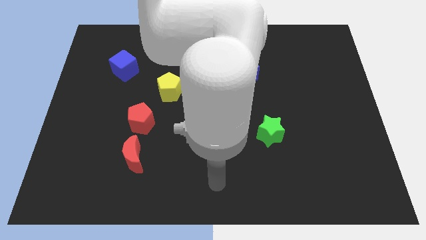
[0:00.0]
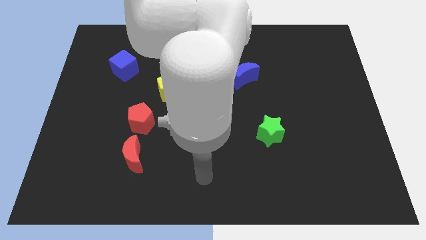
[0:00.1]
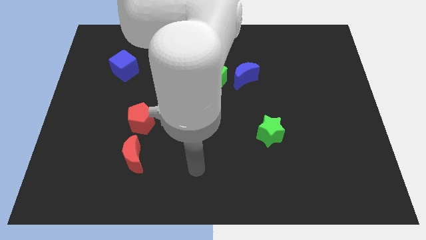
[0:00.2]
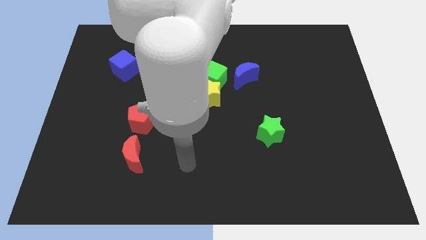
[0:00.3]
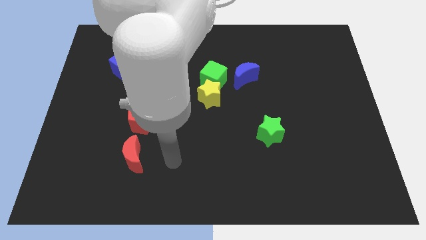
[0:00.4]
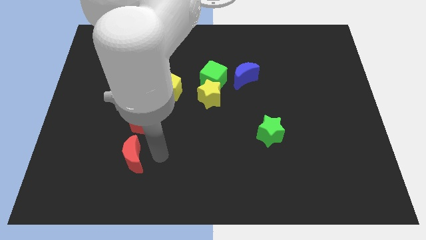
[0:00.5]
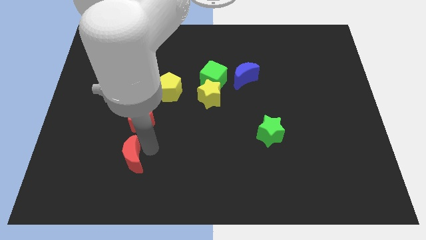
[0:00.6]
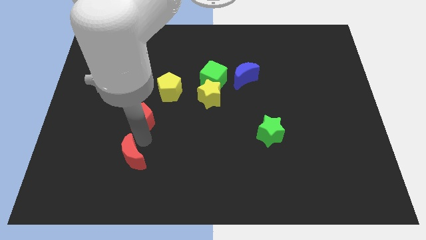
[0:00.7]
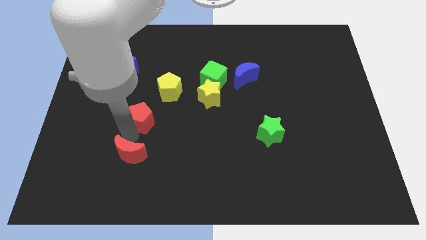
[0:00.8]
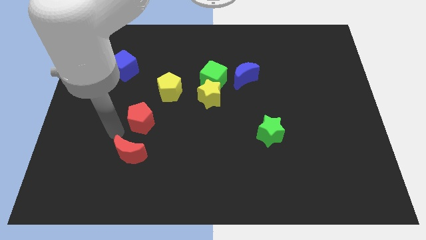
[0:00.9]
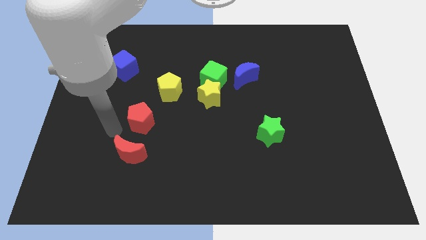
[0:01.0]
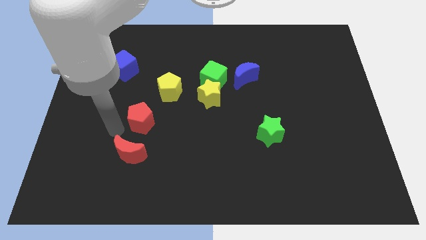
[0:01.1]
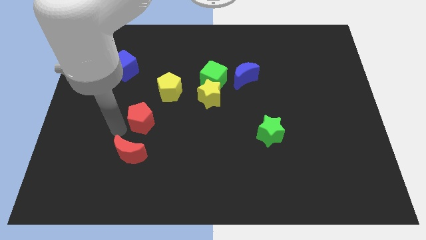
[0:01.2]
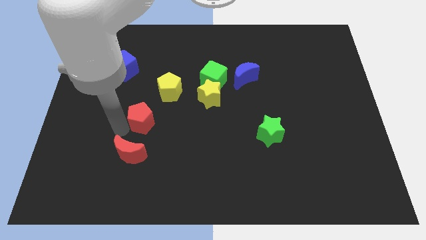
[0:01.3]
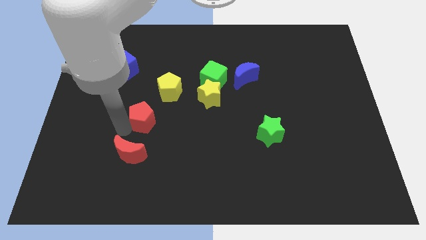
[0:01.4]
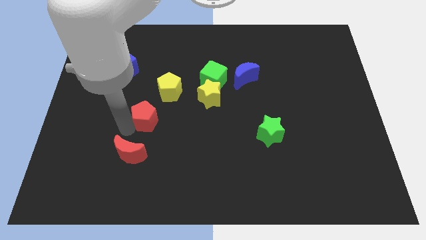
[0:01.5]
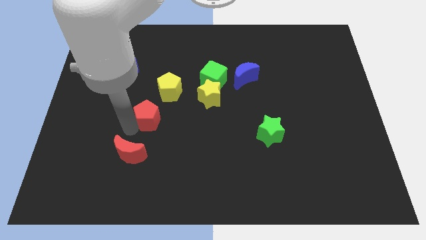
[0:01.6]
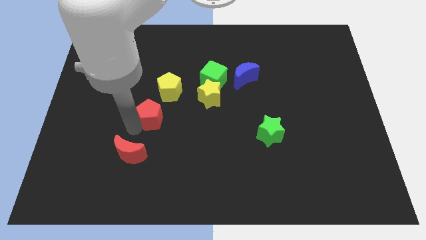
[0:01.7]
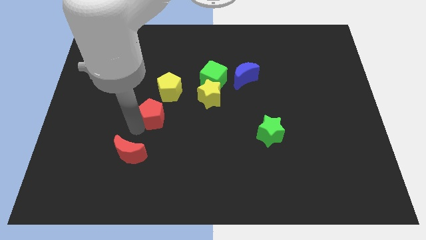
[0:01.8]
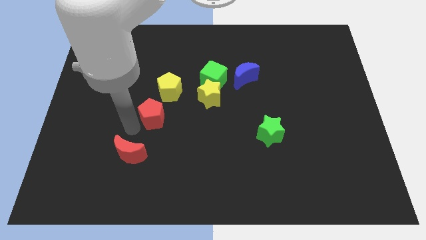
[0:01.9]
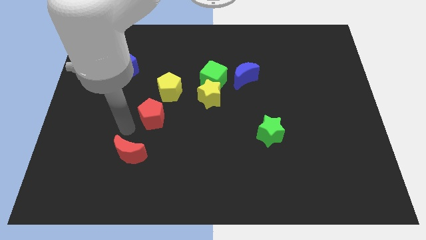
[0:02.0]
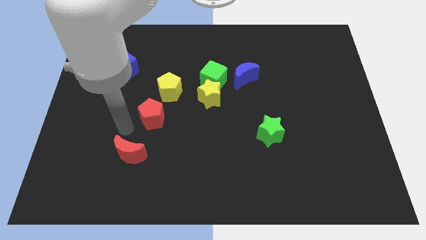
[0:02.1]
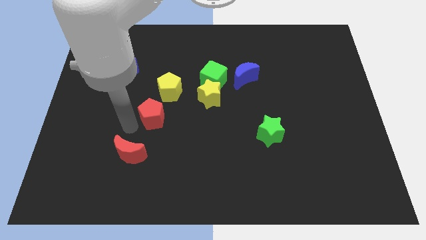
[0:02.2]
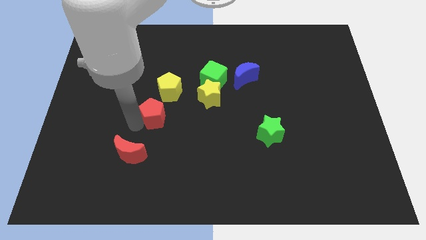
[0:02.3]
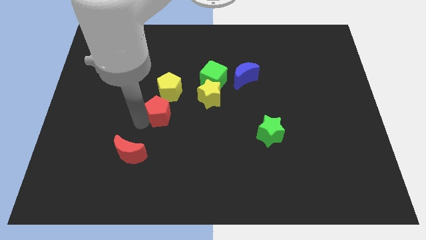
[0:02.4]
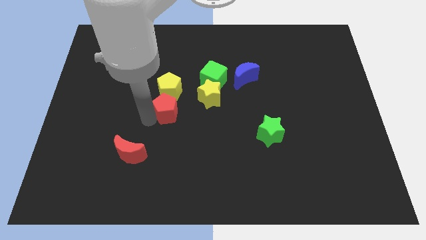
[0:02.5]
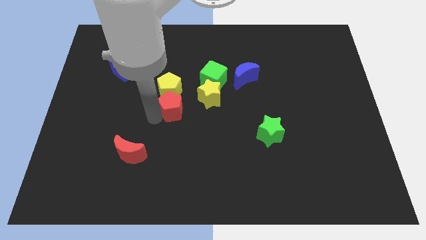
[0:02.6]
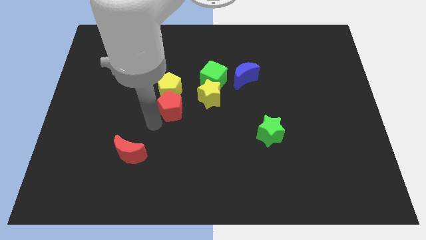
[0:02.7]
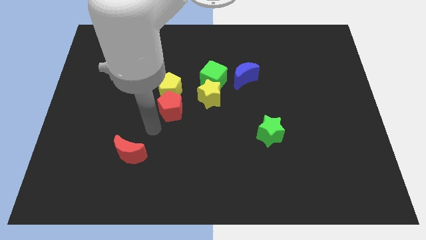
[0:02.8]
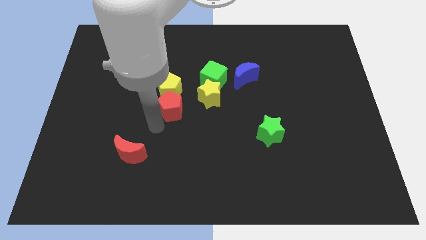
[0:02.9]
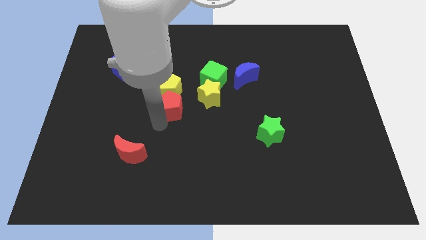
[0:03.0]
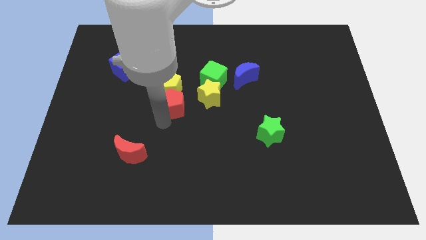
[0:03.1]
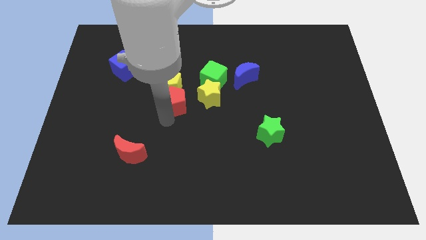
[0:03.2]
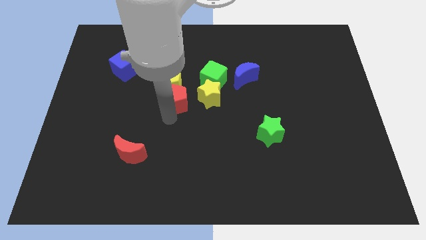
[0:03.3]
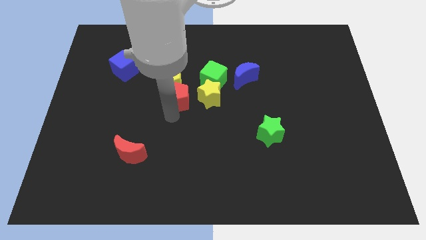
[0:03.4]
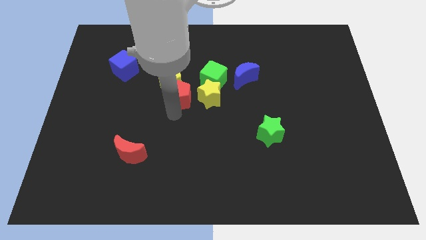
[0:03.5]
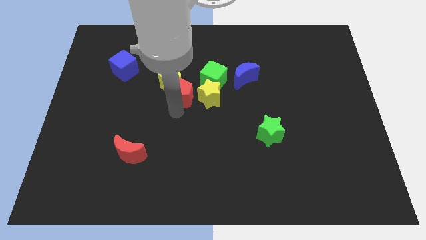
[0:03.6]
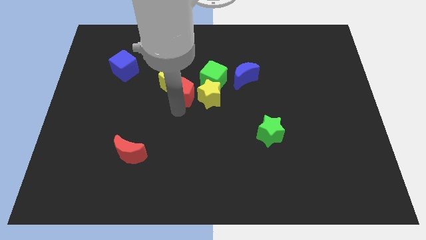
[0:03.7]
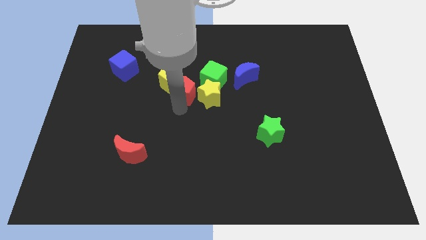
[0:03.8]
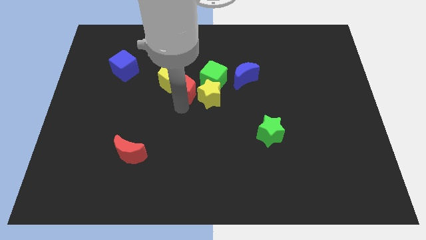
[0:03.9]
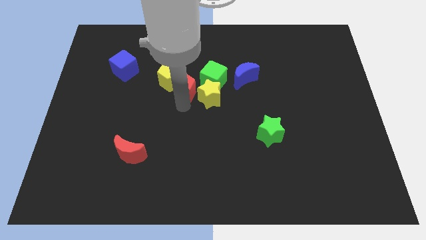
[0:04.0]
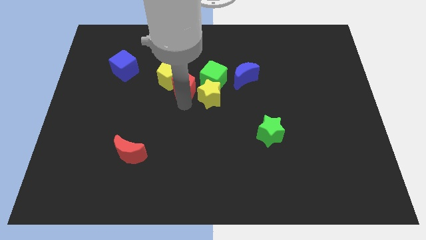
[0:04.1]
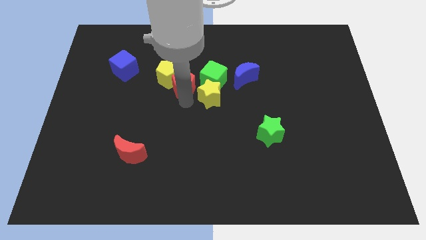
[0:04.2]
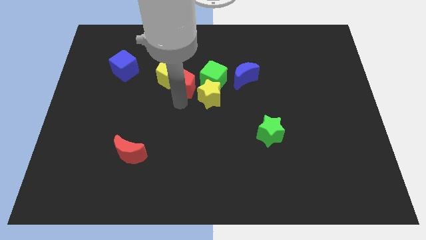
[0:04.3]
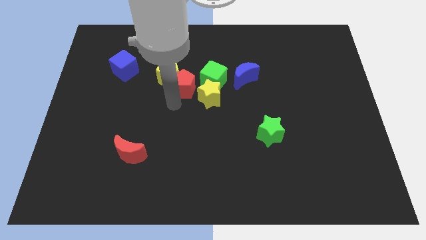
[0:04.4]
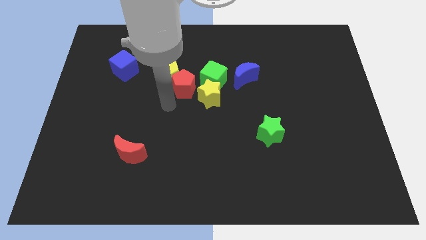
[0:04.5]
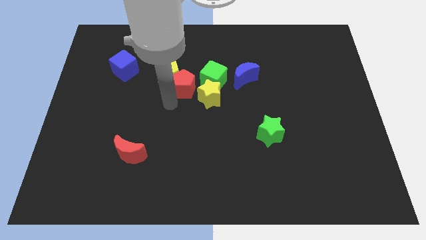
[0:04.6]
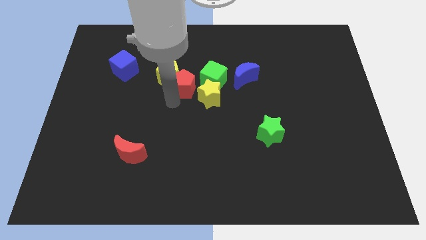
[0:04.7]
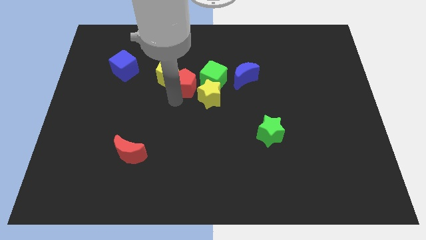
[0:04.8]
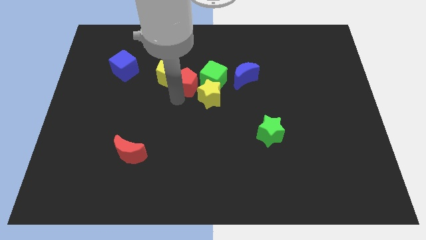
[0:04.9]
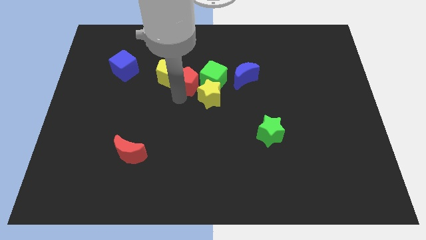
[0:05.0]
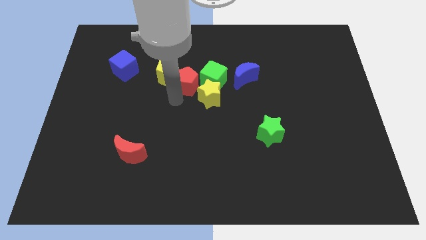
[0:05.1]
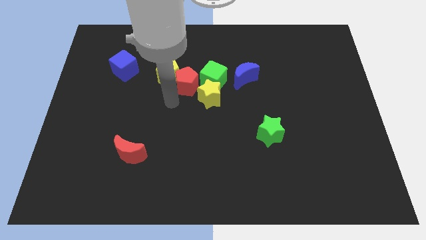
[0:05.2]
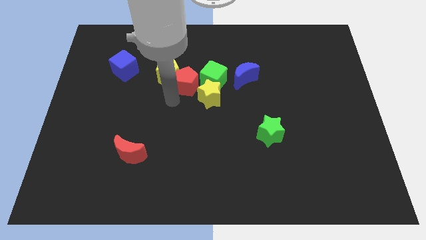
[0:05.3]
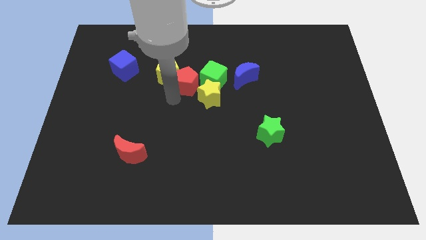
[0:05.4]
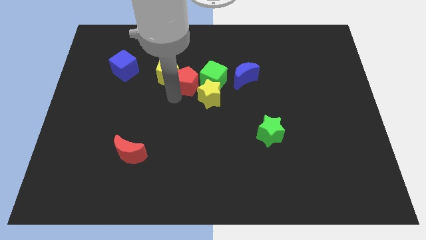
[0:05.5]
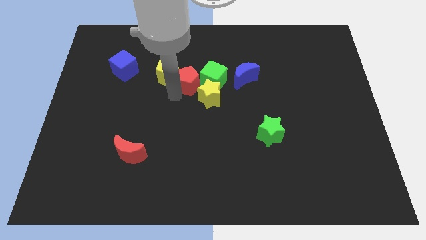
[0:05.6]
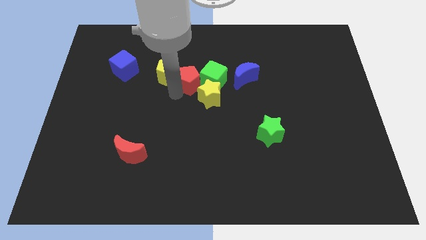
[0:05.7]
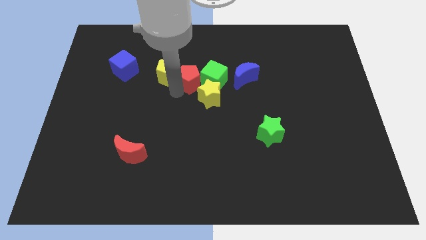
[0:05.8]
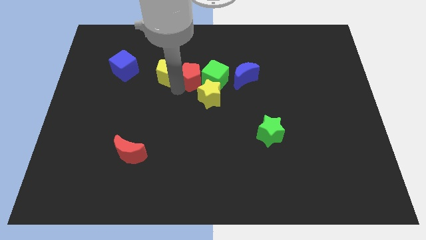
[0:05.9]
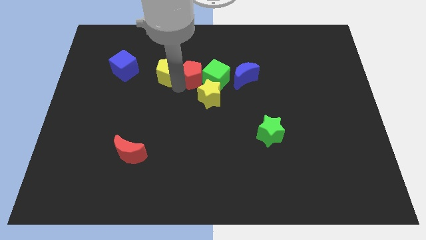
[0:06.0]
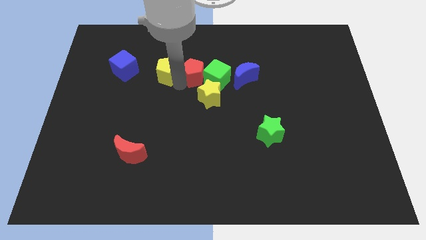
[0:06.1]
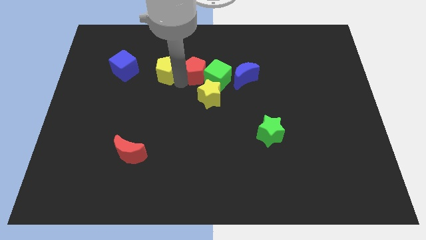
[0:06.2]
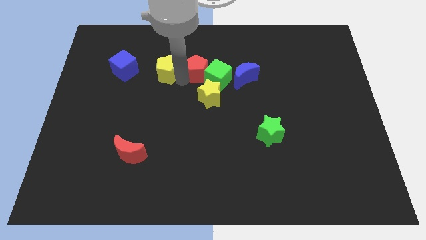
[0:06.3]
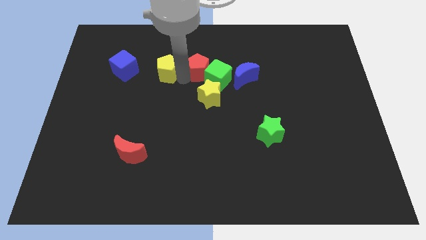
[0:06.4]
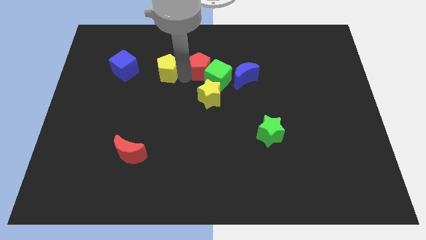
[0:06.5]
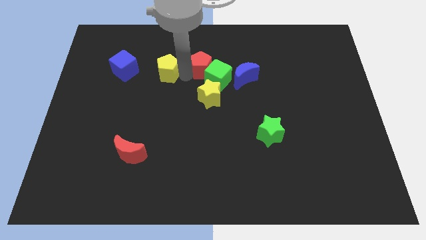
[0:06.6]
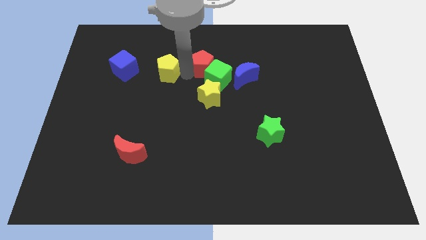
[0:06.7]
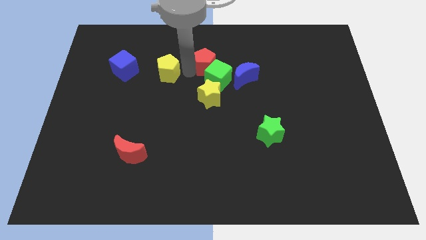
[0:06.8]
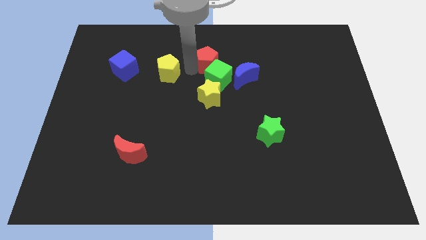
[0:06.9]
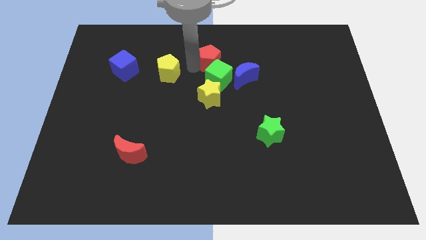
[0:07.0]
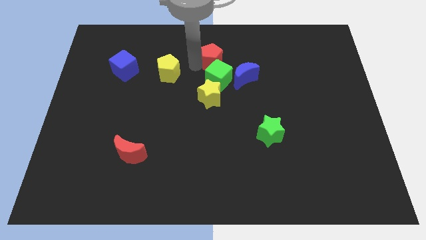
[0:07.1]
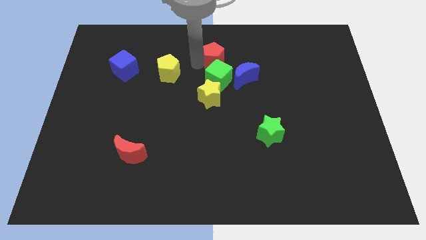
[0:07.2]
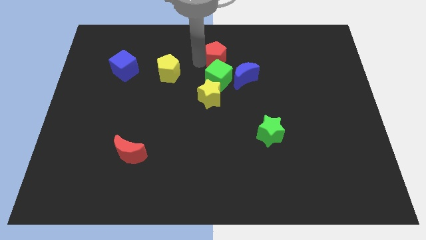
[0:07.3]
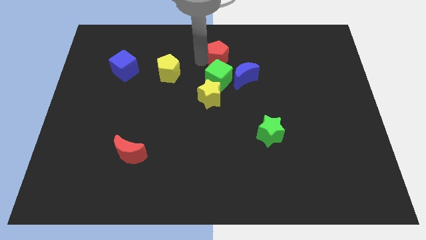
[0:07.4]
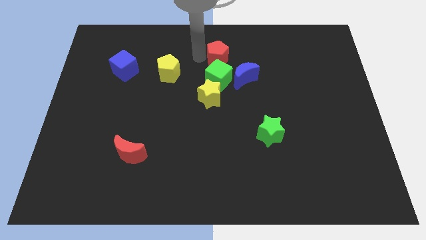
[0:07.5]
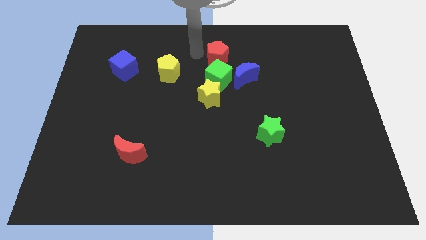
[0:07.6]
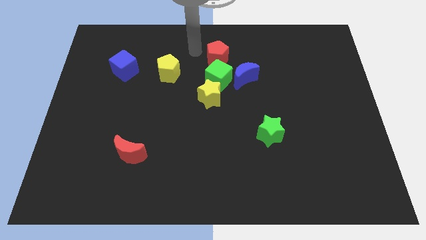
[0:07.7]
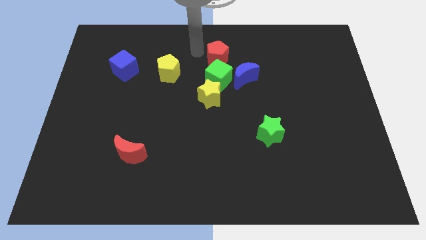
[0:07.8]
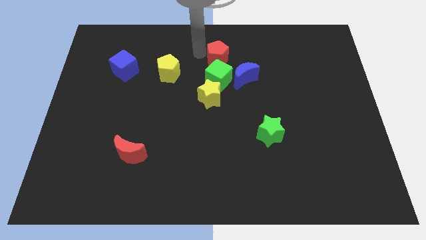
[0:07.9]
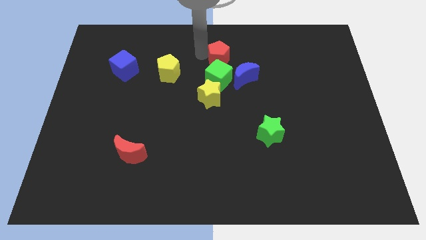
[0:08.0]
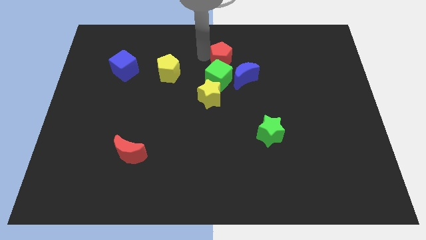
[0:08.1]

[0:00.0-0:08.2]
slide the red pentagon to the top right of the green cube
